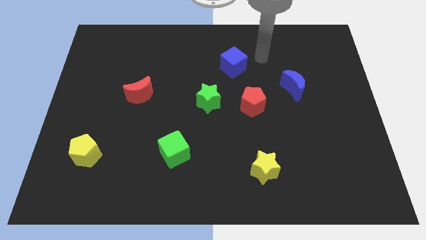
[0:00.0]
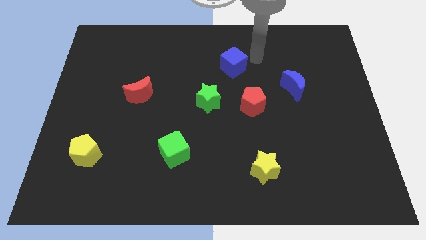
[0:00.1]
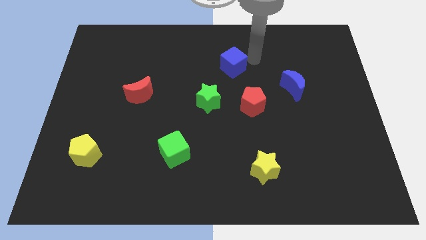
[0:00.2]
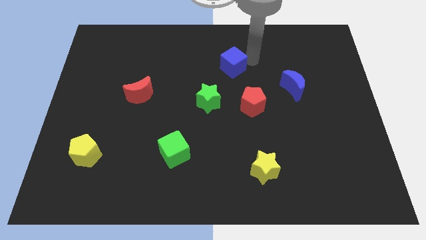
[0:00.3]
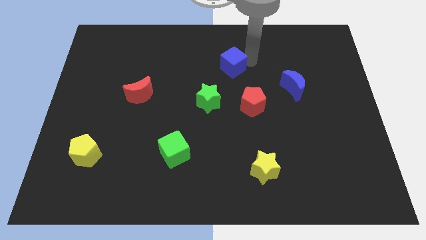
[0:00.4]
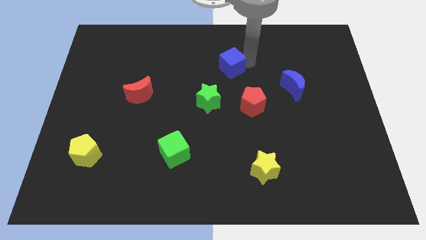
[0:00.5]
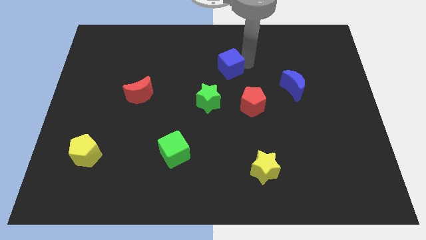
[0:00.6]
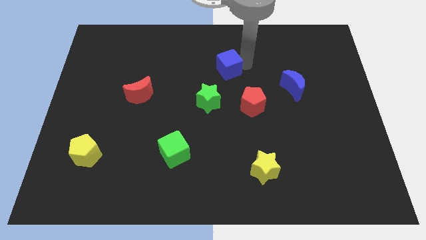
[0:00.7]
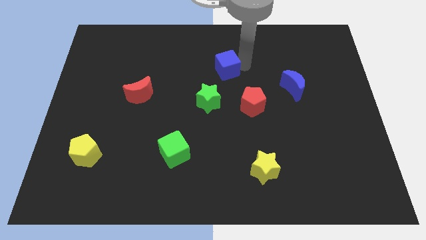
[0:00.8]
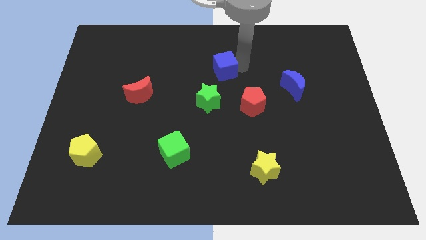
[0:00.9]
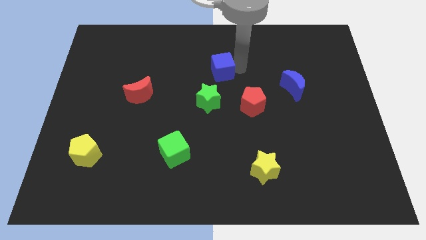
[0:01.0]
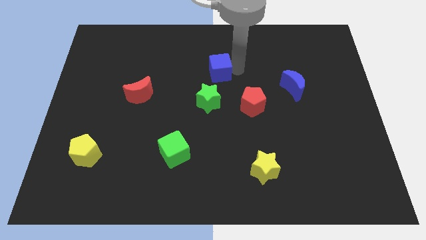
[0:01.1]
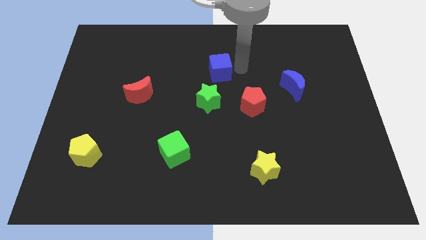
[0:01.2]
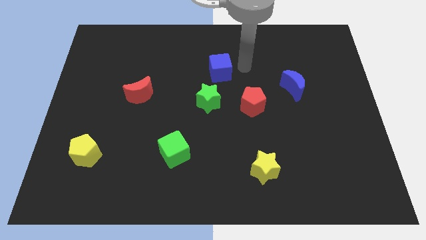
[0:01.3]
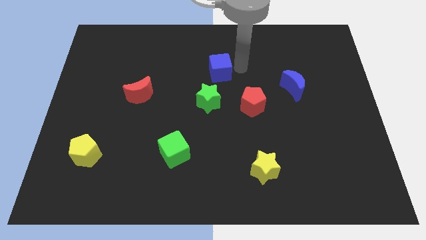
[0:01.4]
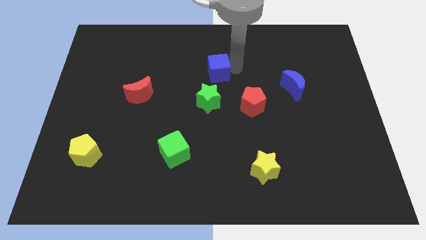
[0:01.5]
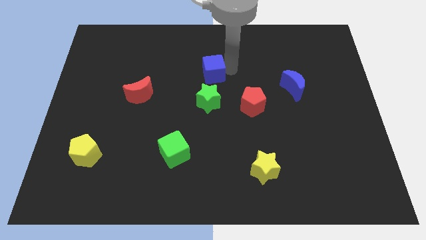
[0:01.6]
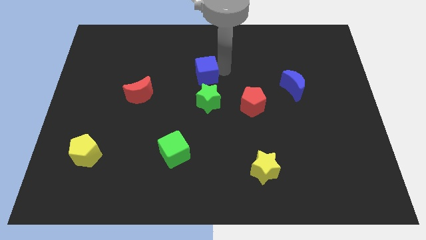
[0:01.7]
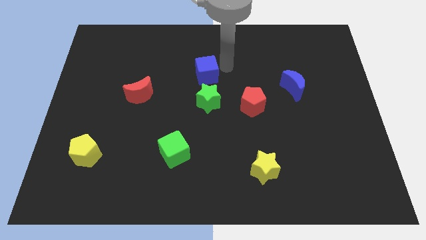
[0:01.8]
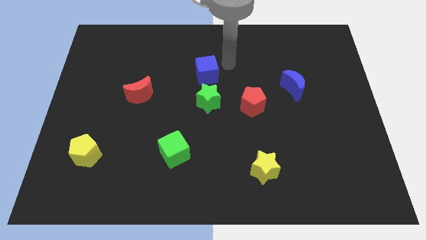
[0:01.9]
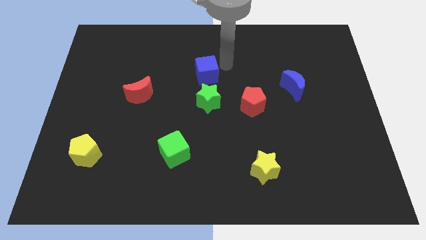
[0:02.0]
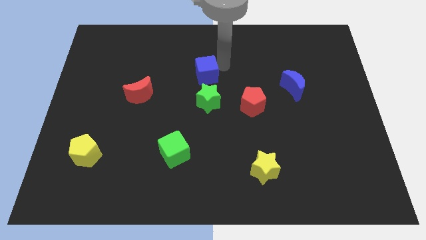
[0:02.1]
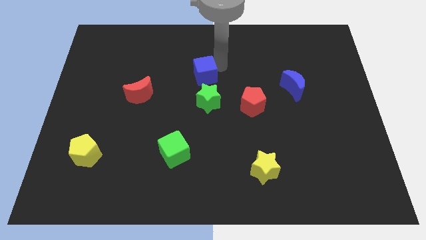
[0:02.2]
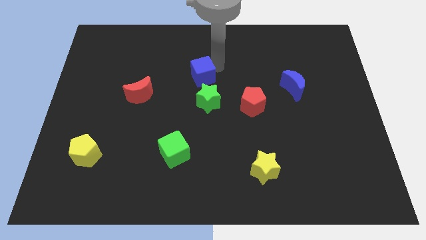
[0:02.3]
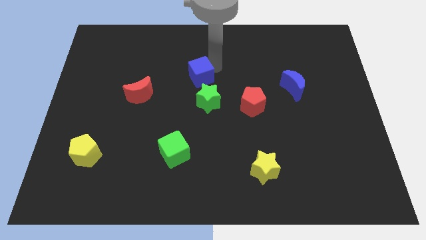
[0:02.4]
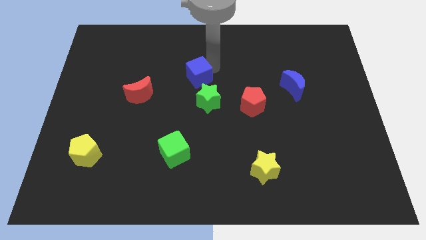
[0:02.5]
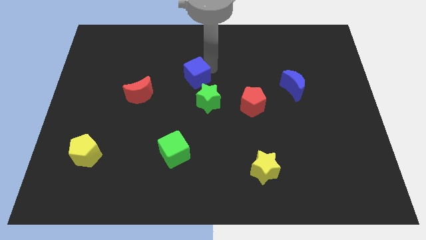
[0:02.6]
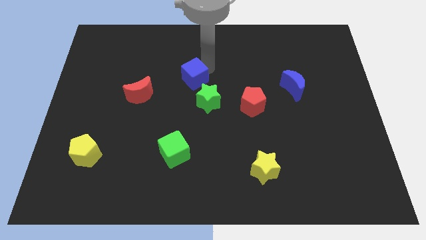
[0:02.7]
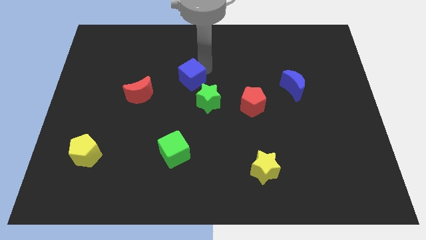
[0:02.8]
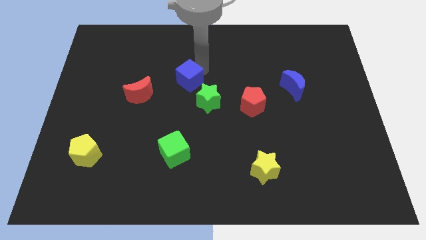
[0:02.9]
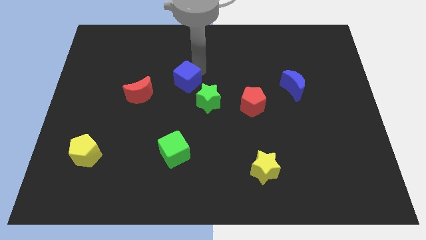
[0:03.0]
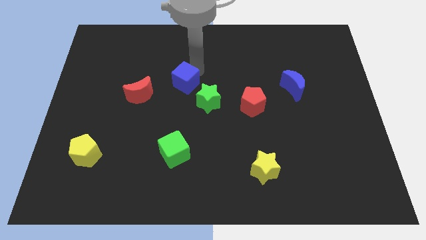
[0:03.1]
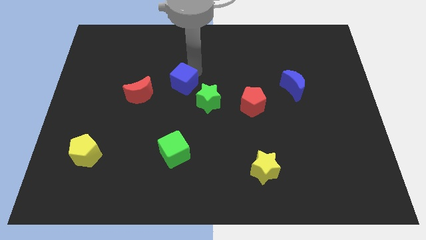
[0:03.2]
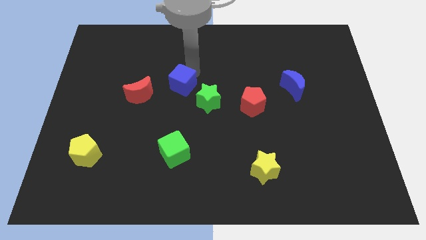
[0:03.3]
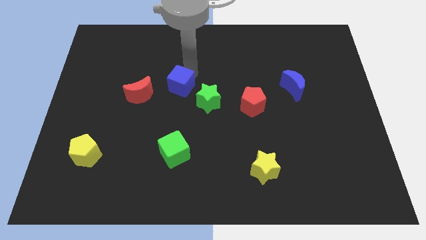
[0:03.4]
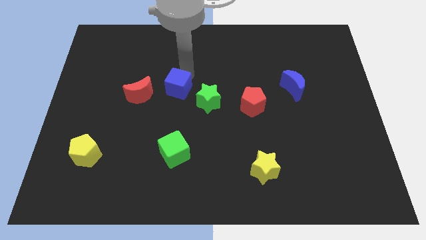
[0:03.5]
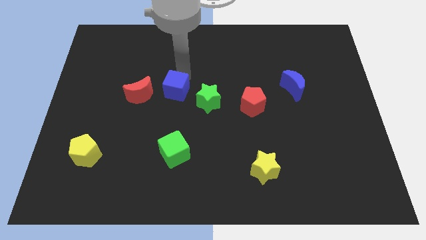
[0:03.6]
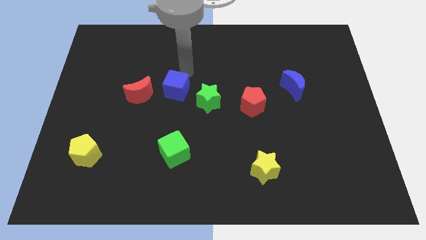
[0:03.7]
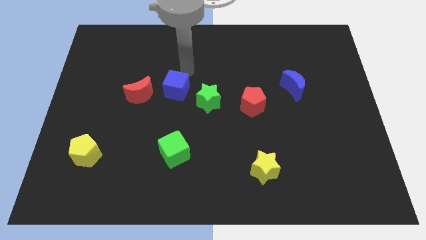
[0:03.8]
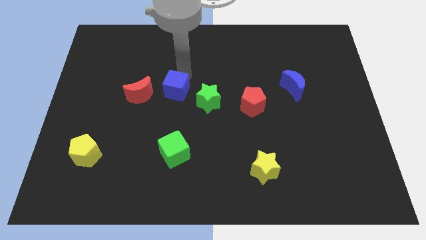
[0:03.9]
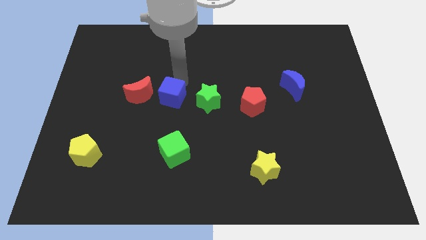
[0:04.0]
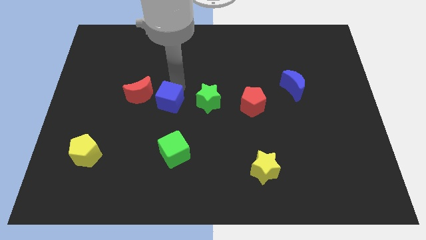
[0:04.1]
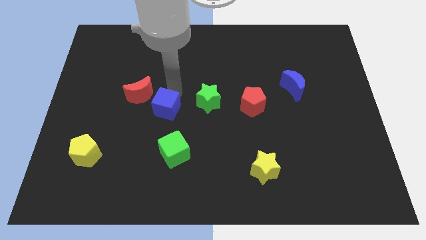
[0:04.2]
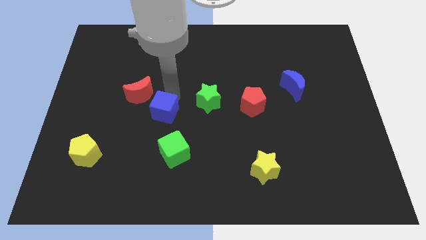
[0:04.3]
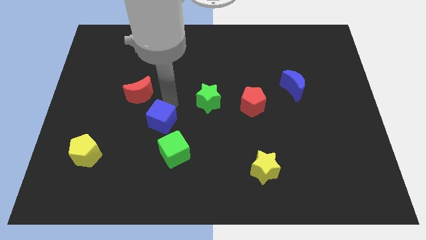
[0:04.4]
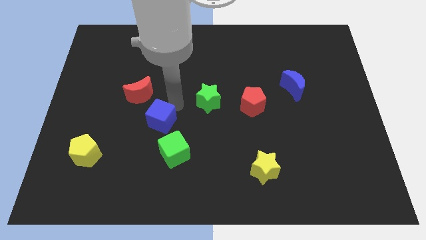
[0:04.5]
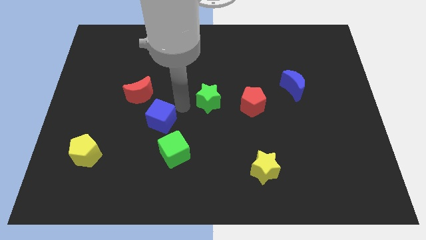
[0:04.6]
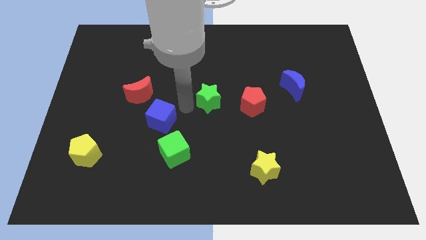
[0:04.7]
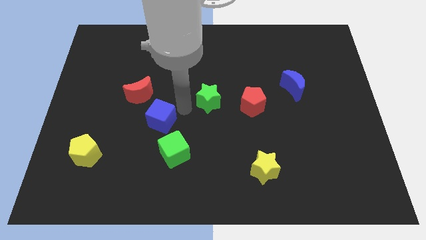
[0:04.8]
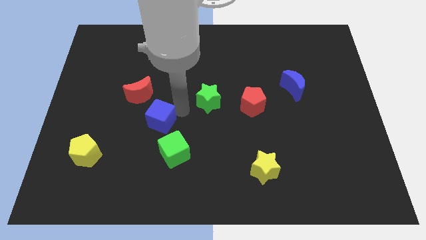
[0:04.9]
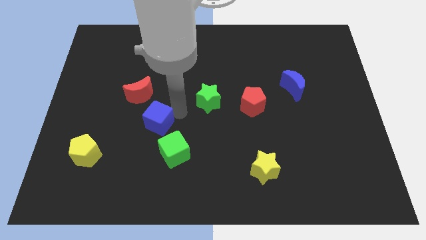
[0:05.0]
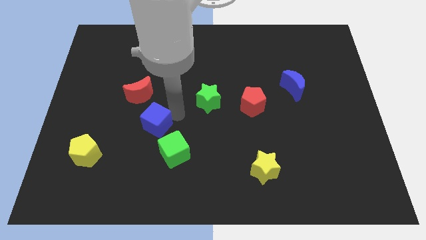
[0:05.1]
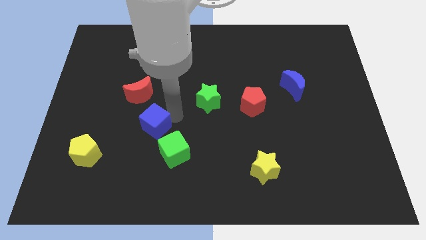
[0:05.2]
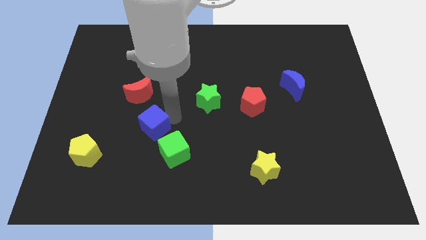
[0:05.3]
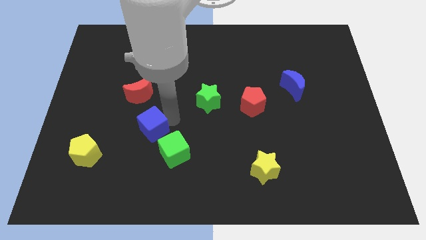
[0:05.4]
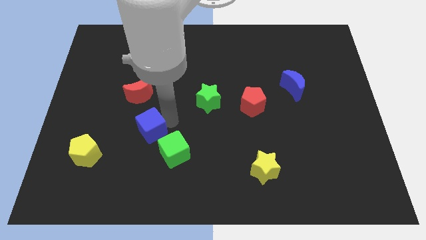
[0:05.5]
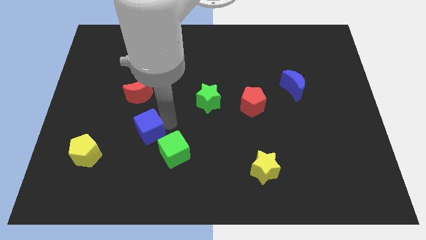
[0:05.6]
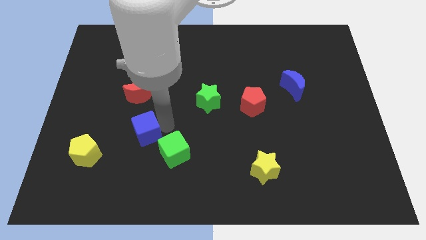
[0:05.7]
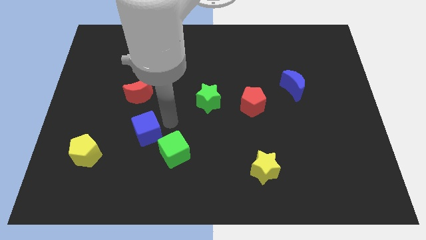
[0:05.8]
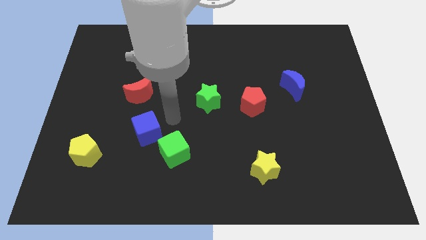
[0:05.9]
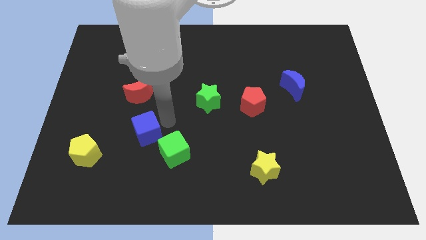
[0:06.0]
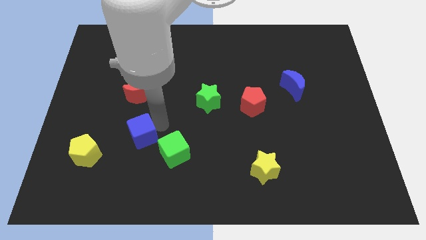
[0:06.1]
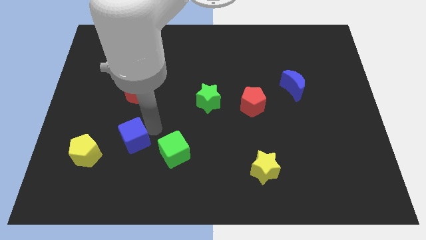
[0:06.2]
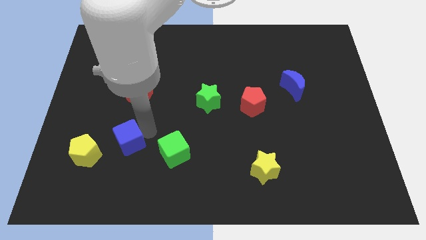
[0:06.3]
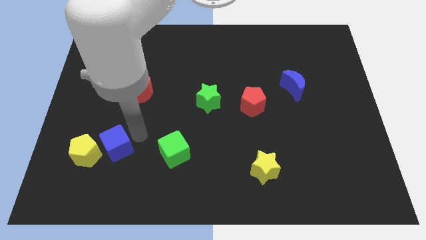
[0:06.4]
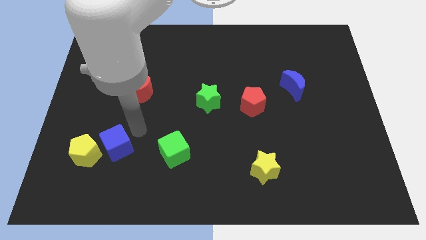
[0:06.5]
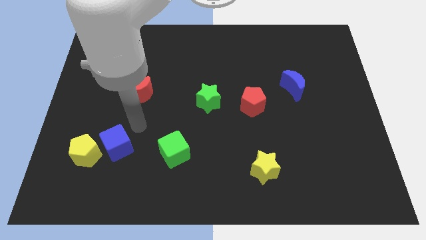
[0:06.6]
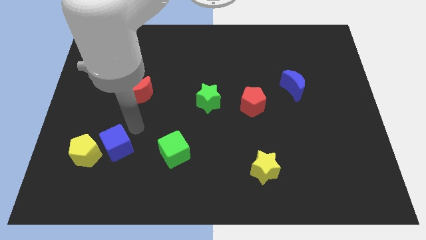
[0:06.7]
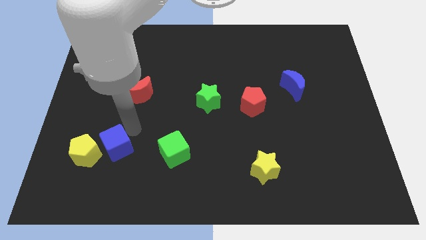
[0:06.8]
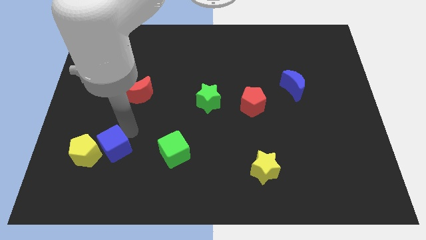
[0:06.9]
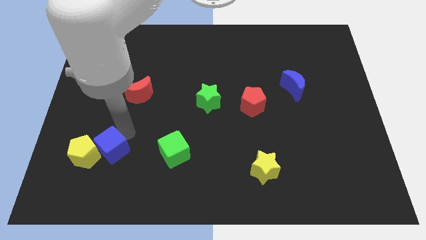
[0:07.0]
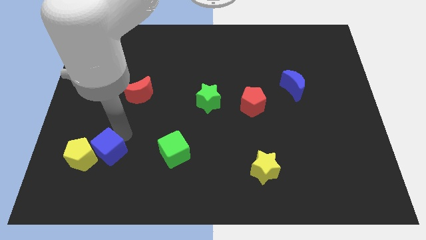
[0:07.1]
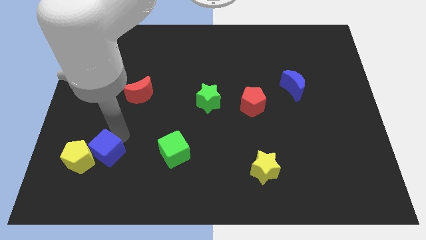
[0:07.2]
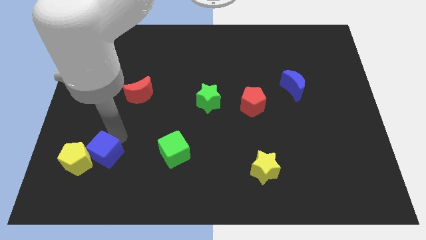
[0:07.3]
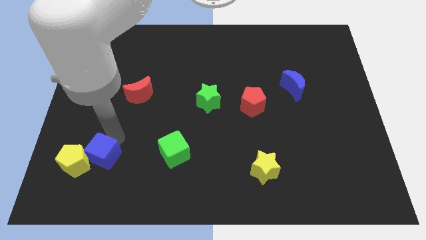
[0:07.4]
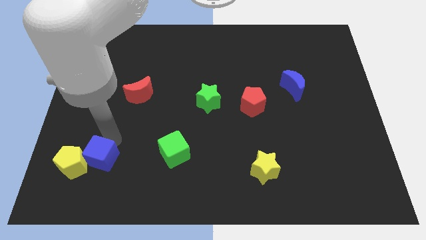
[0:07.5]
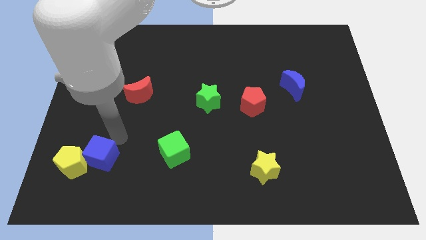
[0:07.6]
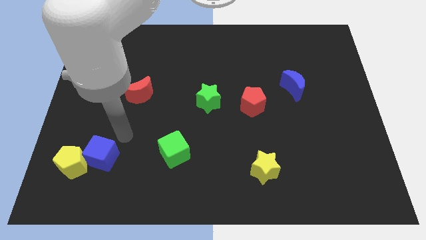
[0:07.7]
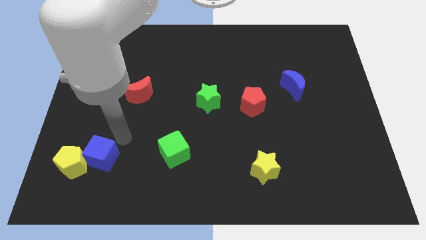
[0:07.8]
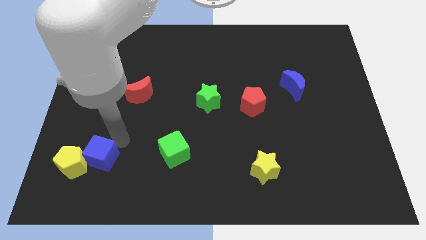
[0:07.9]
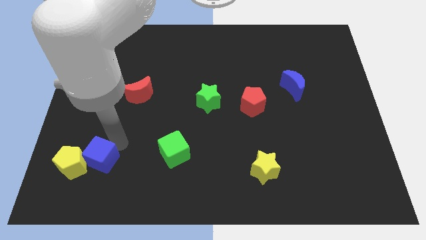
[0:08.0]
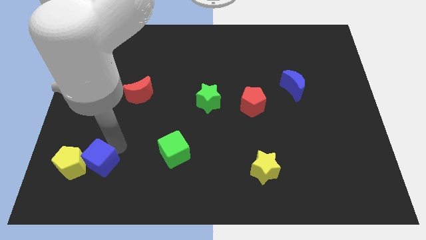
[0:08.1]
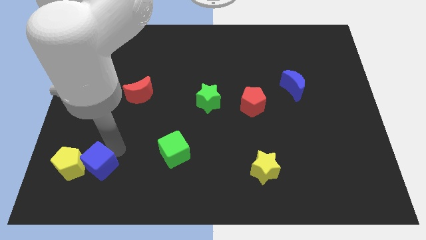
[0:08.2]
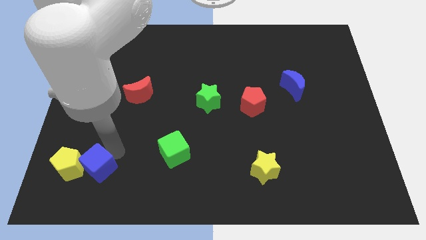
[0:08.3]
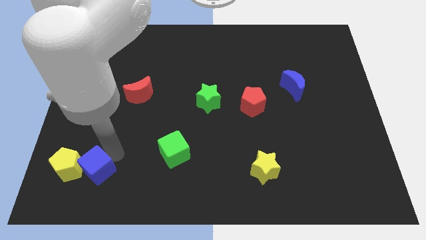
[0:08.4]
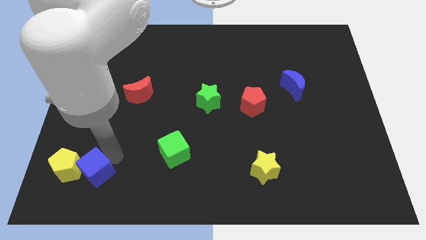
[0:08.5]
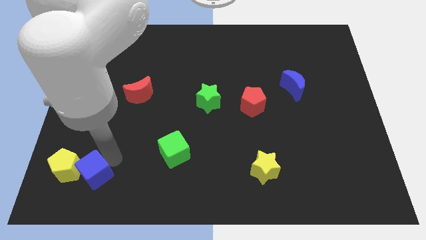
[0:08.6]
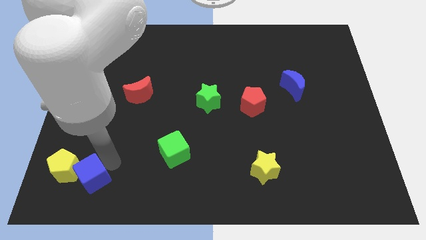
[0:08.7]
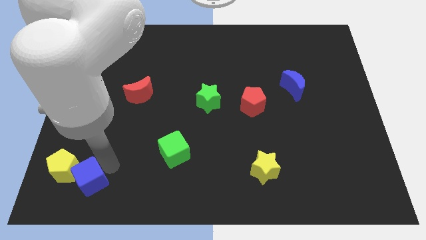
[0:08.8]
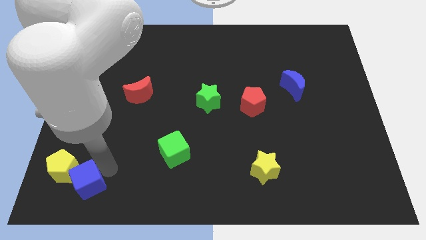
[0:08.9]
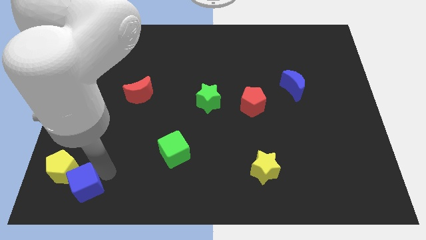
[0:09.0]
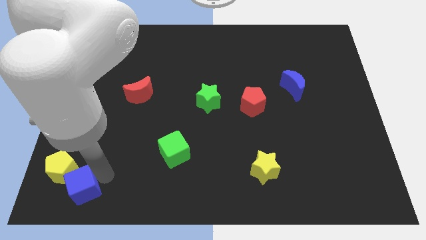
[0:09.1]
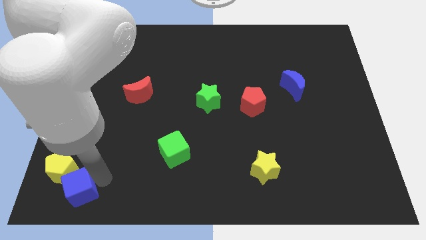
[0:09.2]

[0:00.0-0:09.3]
put the blue cube to the bottom left
